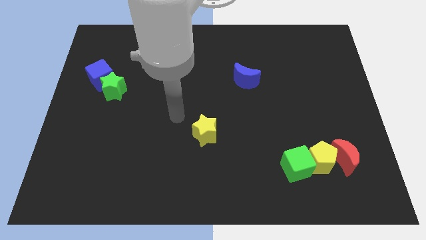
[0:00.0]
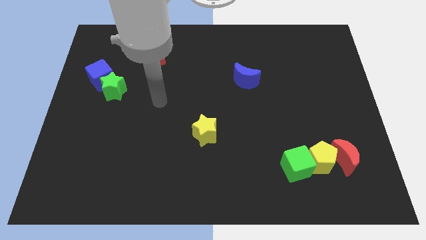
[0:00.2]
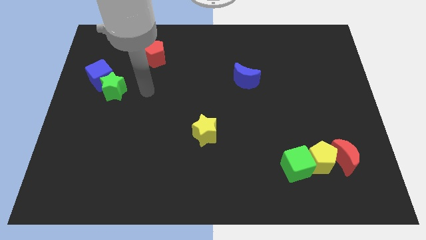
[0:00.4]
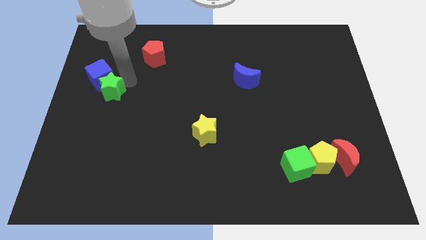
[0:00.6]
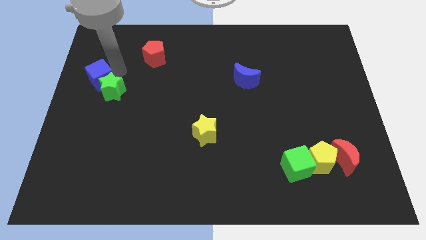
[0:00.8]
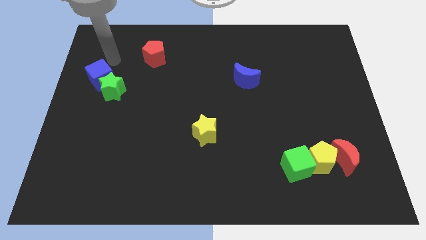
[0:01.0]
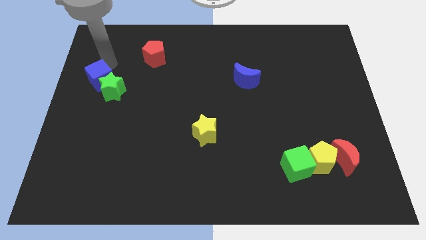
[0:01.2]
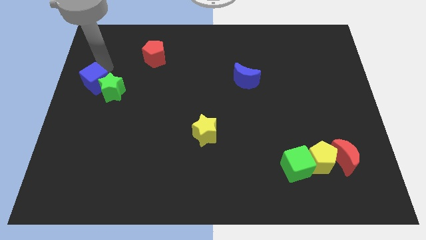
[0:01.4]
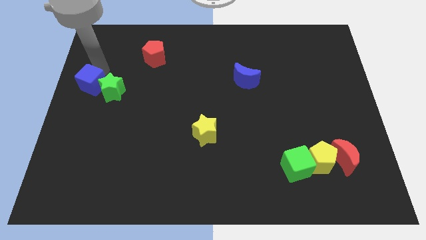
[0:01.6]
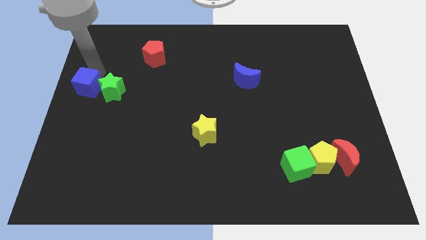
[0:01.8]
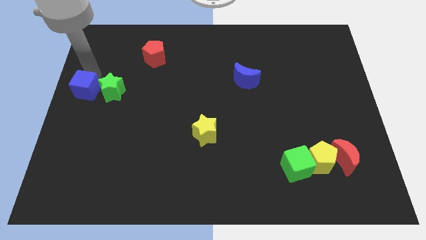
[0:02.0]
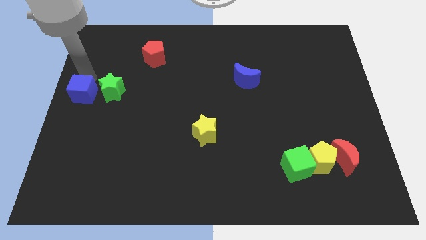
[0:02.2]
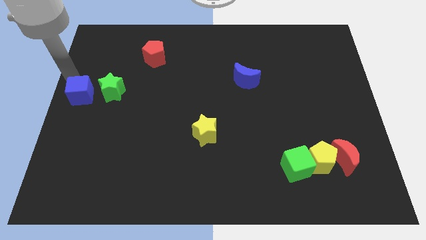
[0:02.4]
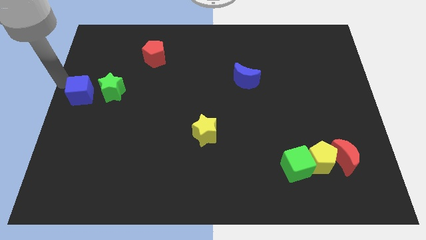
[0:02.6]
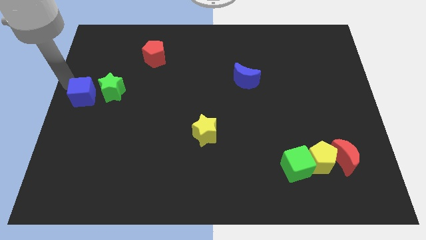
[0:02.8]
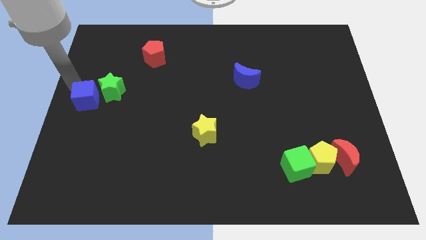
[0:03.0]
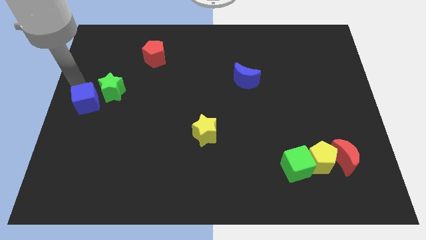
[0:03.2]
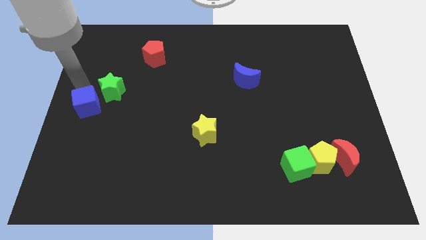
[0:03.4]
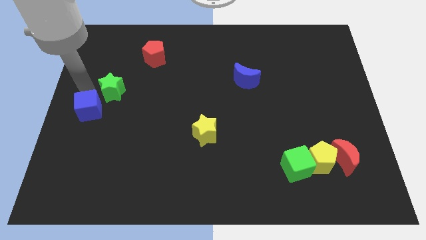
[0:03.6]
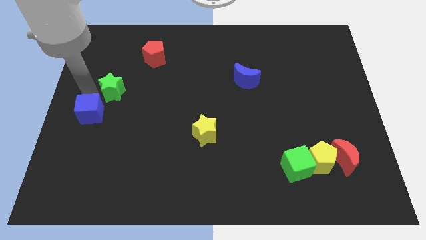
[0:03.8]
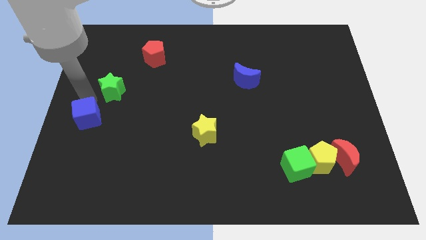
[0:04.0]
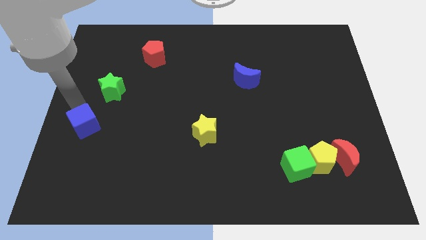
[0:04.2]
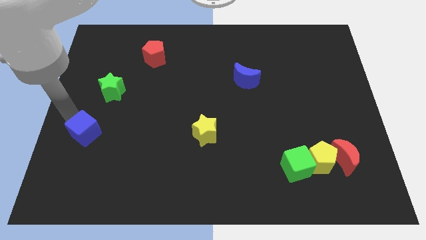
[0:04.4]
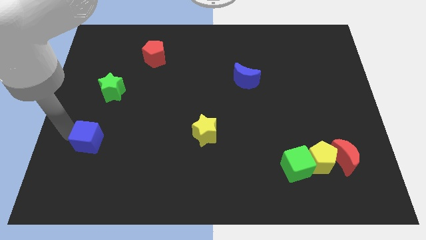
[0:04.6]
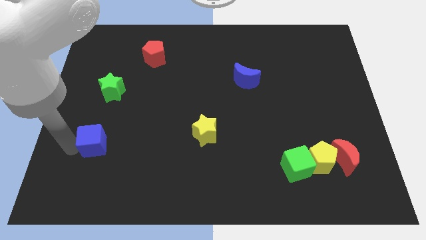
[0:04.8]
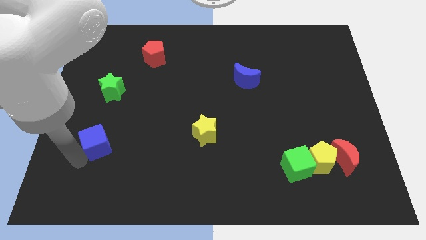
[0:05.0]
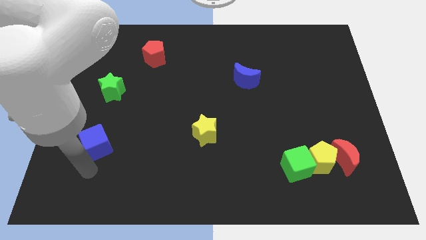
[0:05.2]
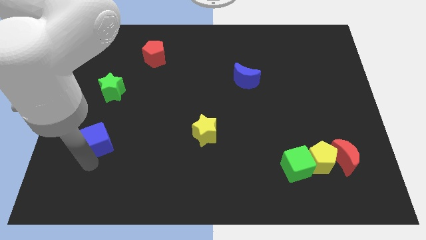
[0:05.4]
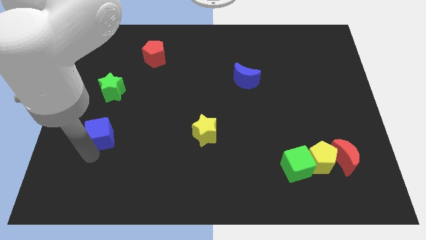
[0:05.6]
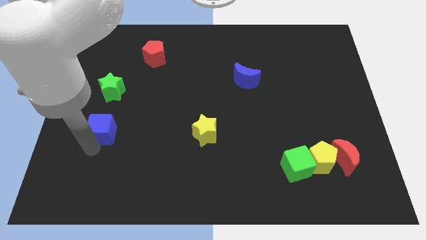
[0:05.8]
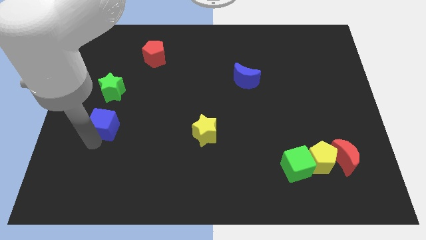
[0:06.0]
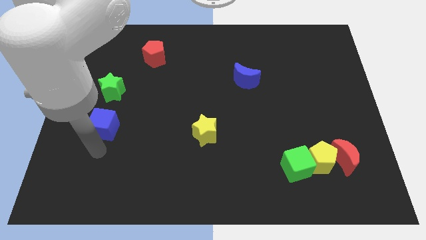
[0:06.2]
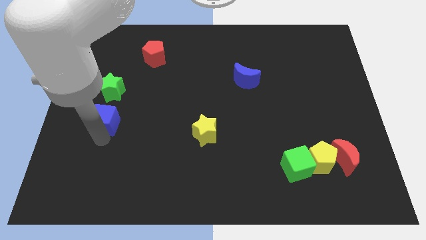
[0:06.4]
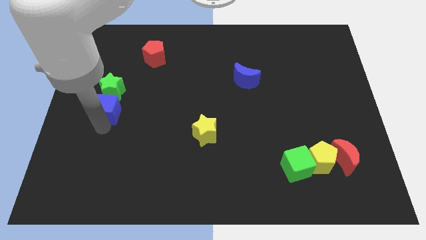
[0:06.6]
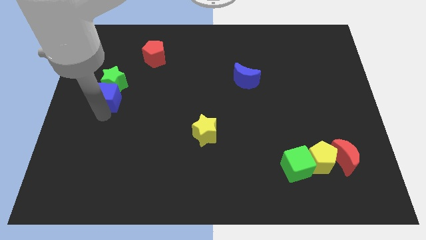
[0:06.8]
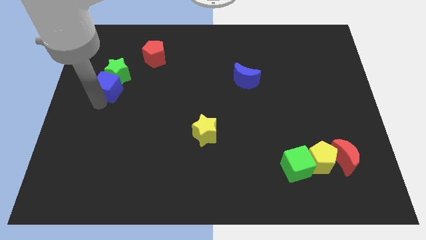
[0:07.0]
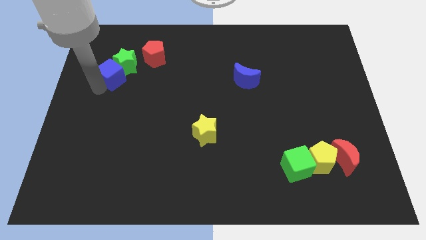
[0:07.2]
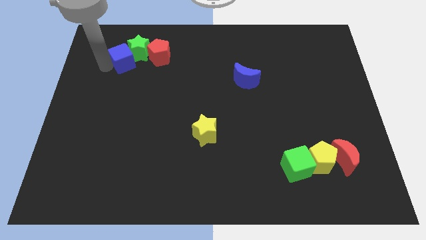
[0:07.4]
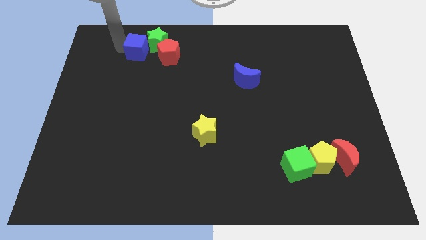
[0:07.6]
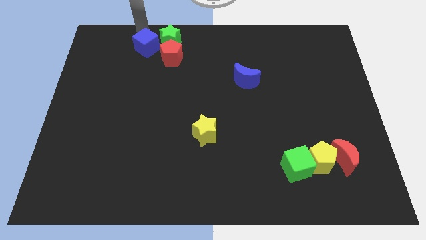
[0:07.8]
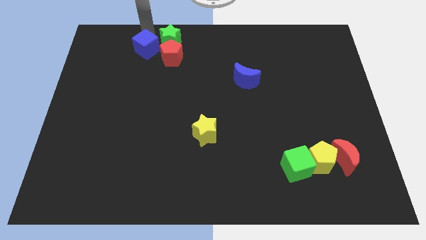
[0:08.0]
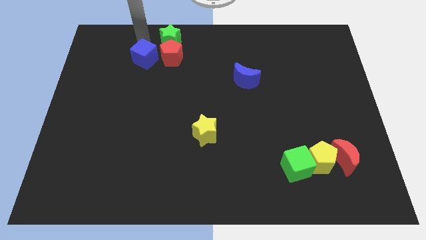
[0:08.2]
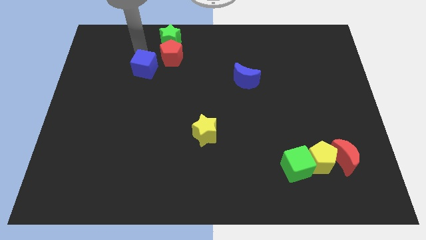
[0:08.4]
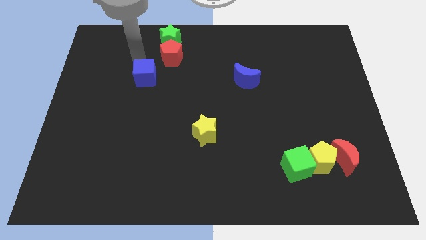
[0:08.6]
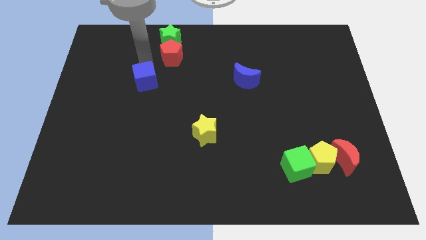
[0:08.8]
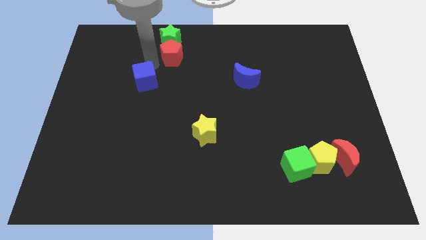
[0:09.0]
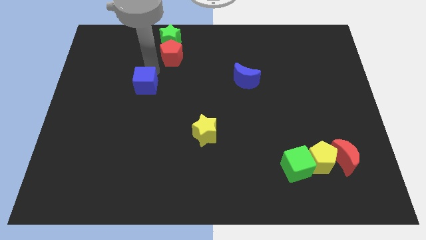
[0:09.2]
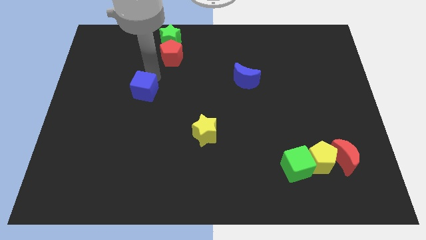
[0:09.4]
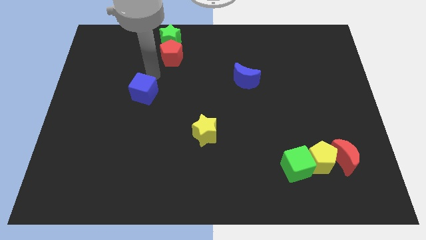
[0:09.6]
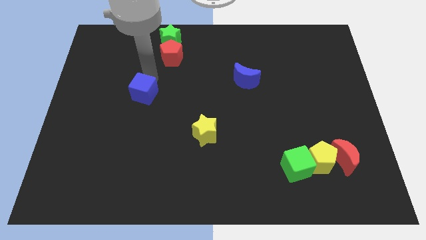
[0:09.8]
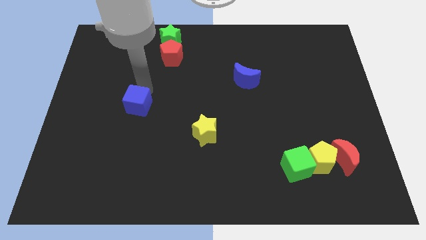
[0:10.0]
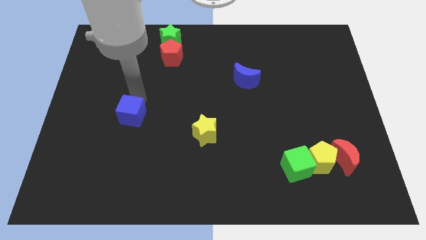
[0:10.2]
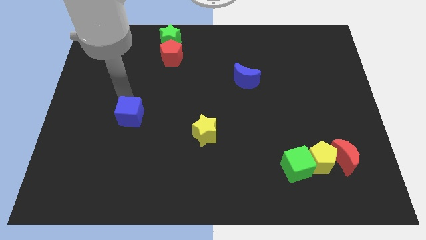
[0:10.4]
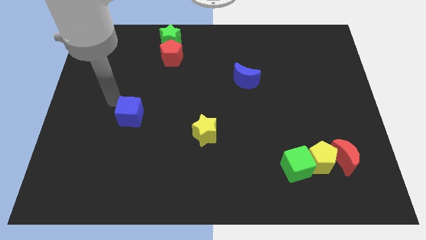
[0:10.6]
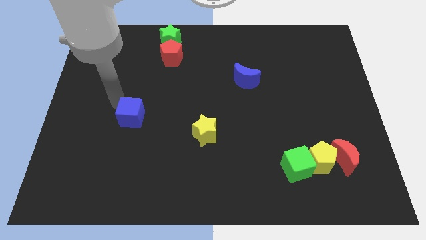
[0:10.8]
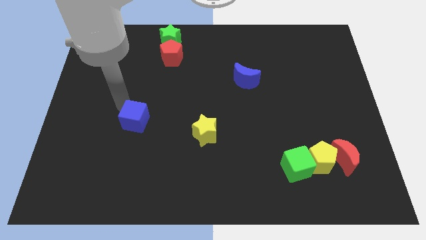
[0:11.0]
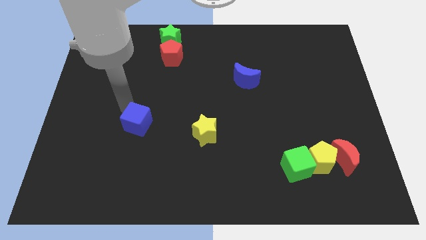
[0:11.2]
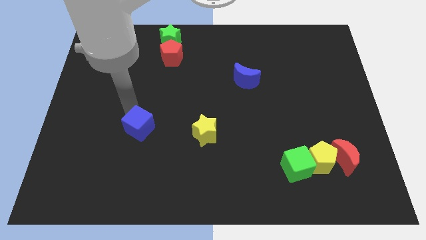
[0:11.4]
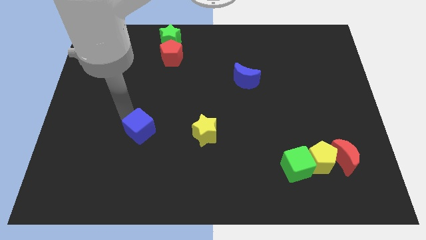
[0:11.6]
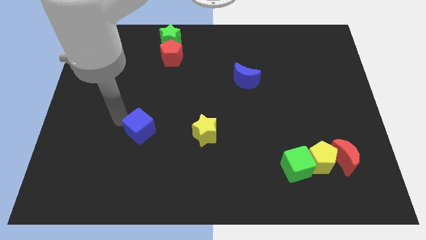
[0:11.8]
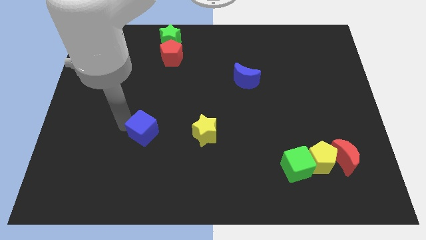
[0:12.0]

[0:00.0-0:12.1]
push the blue cube downwards and right diagonally

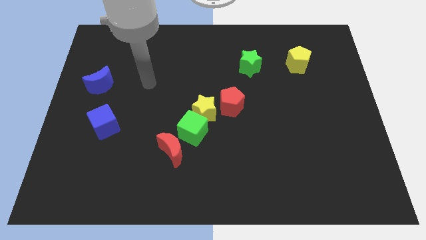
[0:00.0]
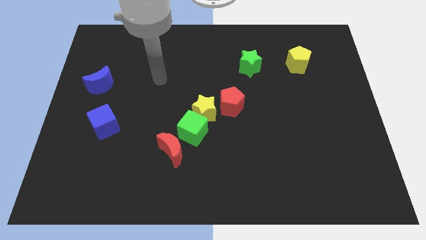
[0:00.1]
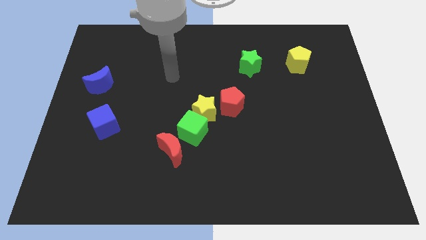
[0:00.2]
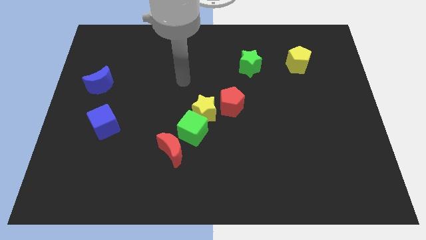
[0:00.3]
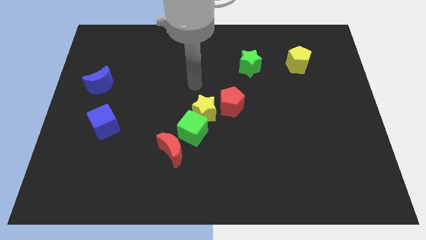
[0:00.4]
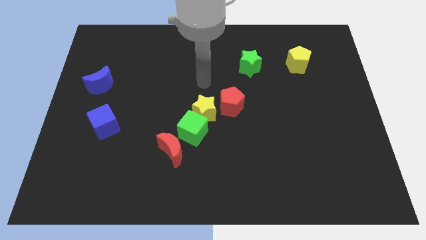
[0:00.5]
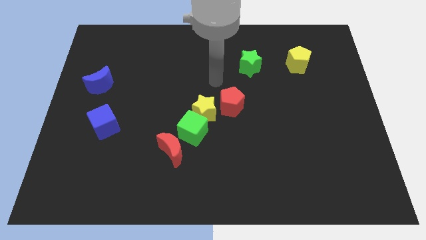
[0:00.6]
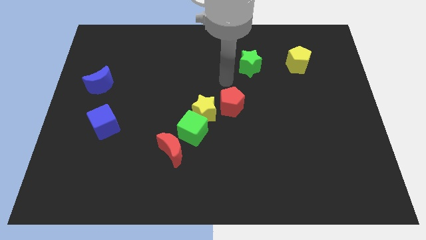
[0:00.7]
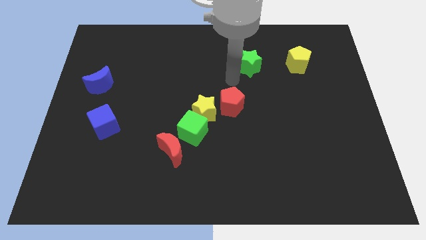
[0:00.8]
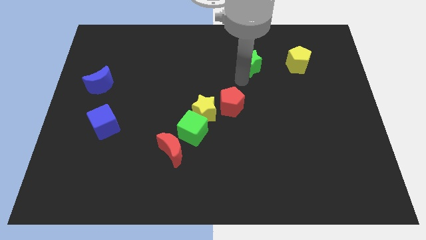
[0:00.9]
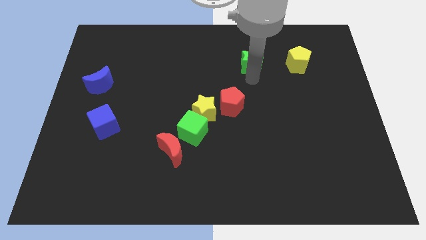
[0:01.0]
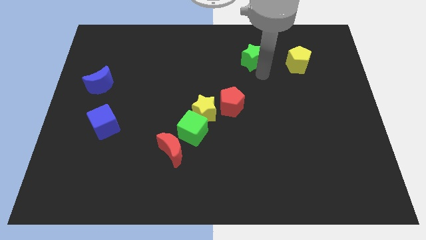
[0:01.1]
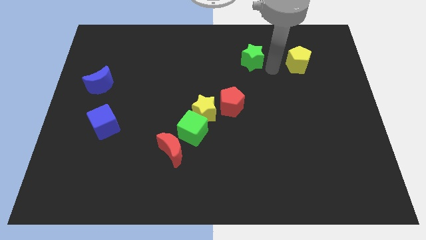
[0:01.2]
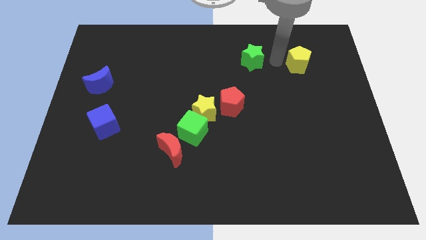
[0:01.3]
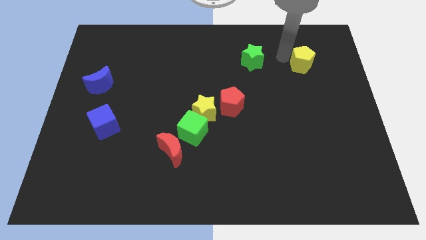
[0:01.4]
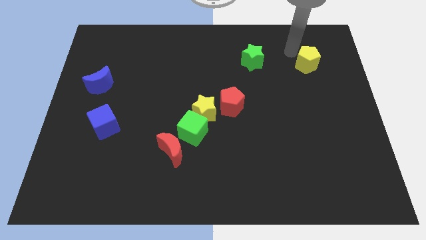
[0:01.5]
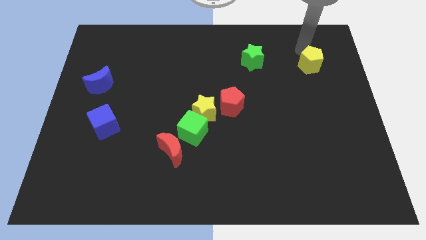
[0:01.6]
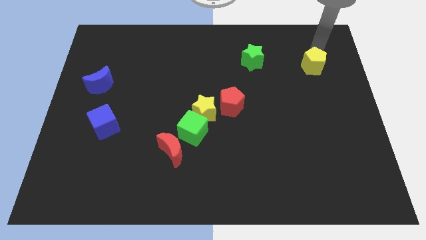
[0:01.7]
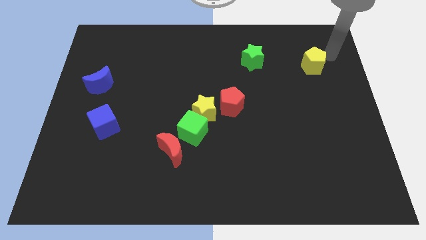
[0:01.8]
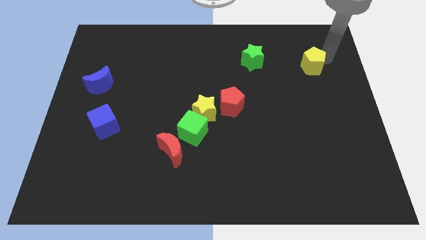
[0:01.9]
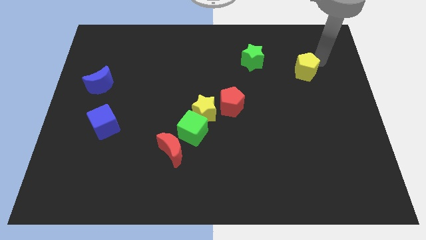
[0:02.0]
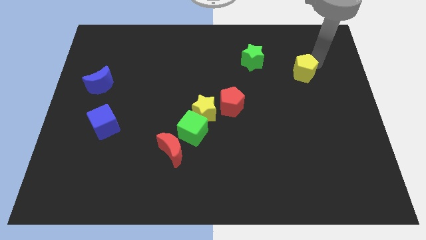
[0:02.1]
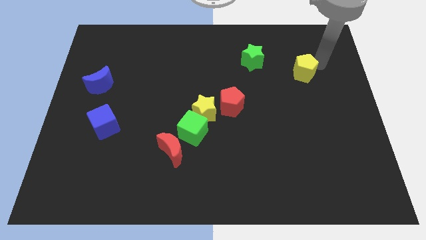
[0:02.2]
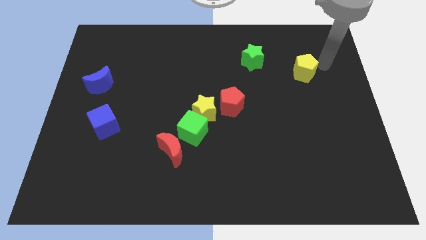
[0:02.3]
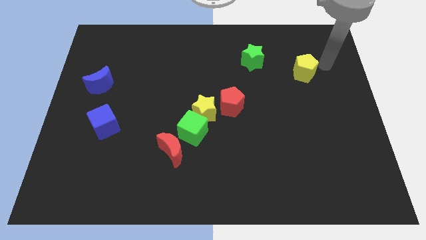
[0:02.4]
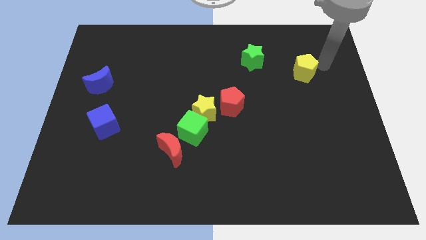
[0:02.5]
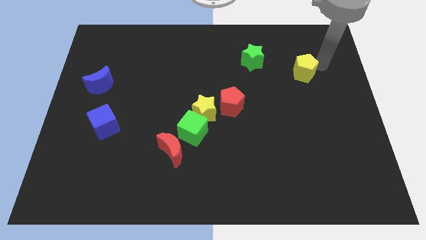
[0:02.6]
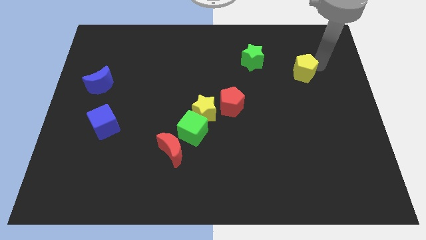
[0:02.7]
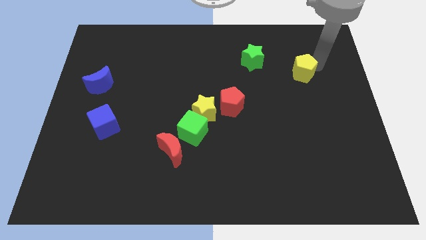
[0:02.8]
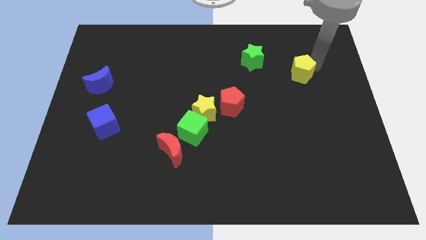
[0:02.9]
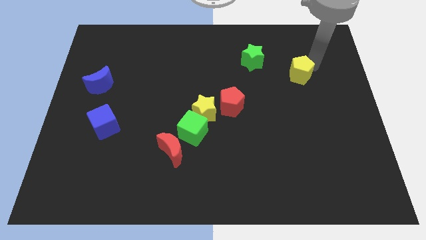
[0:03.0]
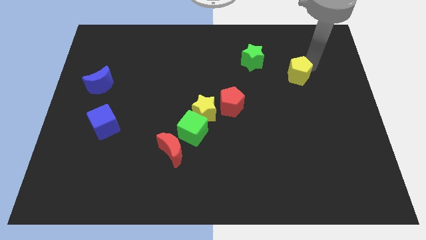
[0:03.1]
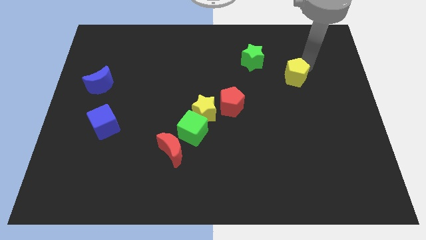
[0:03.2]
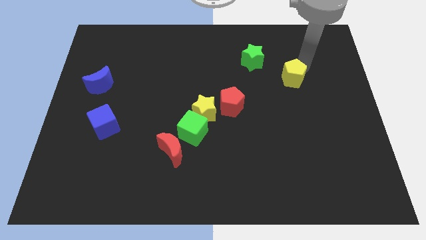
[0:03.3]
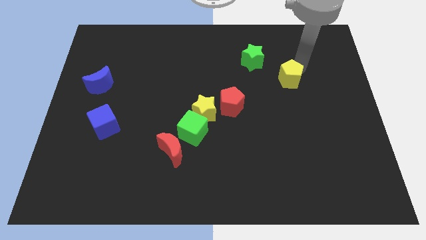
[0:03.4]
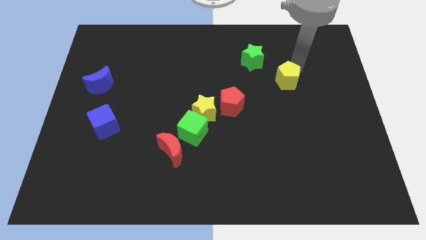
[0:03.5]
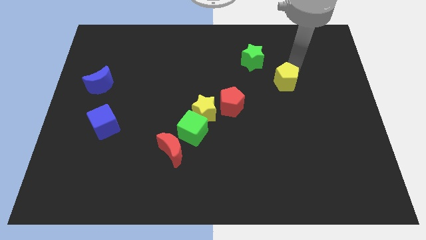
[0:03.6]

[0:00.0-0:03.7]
move the yellow pentagon a little bit diagonally down and left
